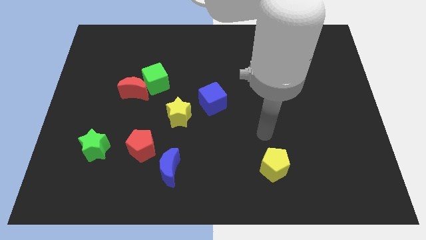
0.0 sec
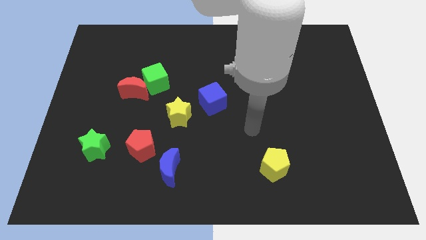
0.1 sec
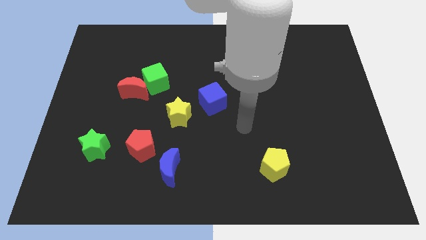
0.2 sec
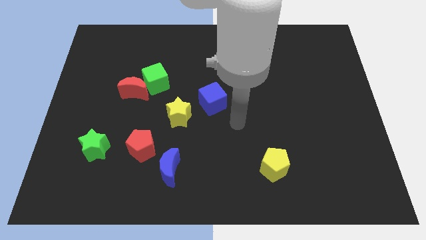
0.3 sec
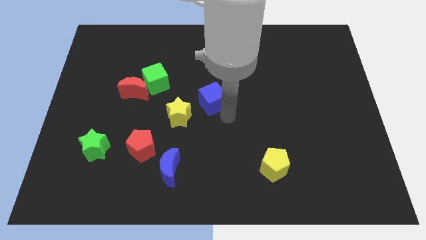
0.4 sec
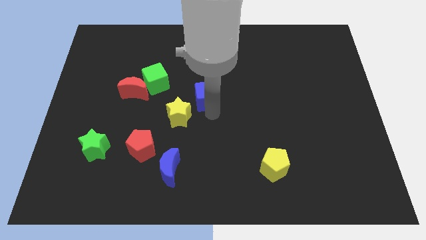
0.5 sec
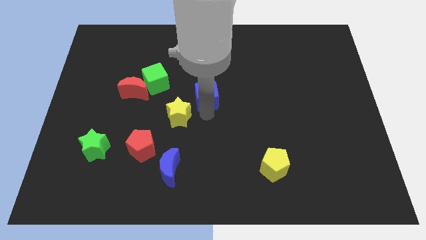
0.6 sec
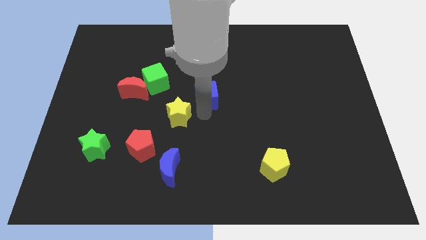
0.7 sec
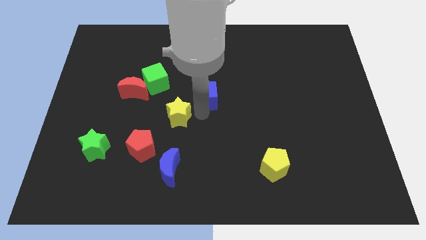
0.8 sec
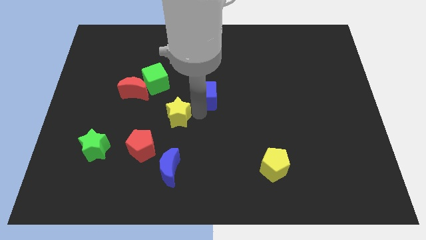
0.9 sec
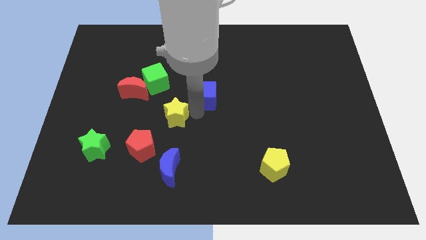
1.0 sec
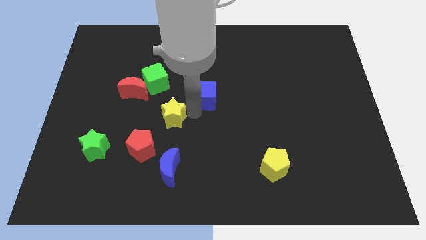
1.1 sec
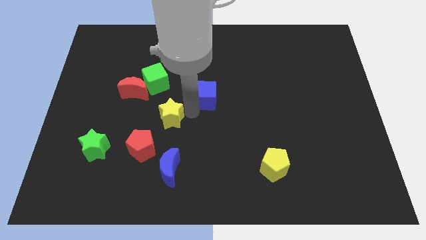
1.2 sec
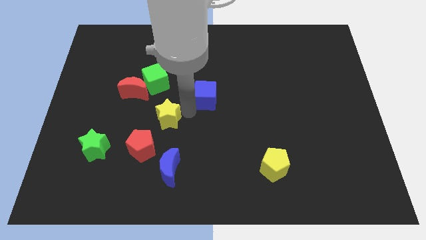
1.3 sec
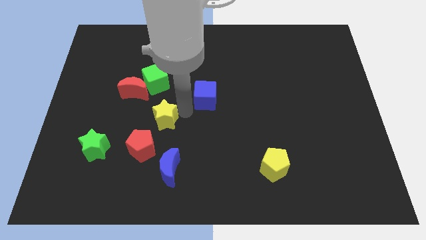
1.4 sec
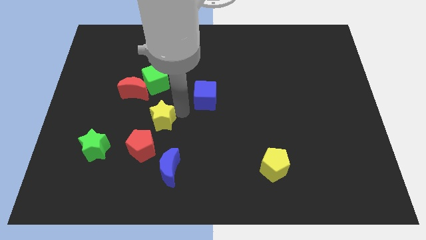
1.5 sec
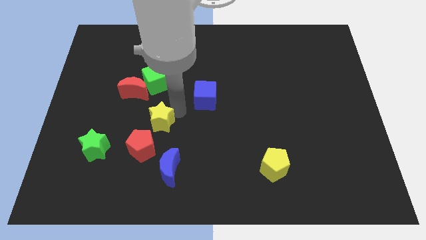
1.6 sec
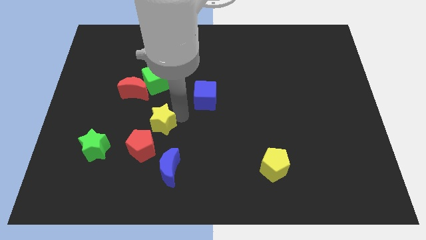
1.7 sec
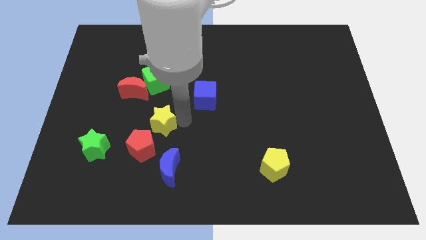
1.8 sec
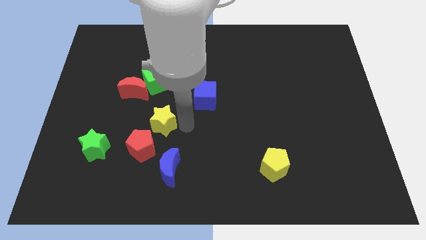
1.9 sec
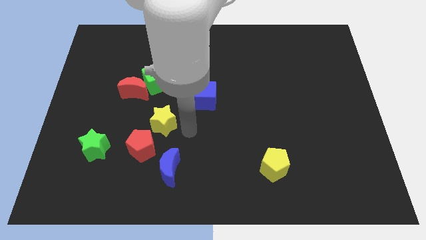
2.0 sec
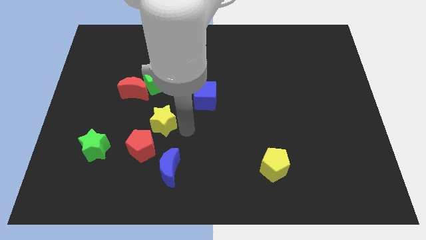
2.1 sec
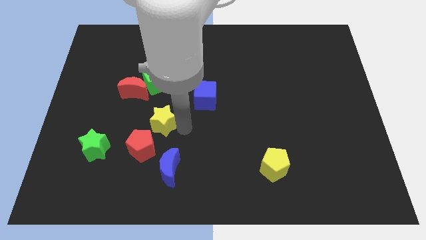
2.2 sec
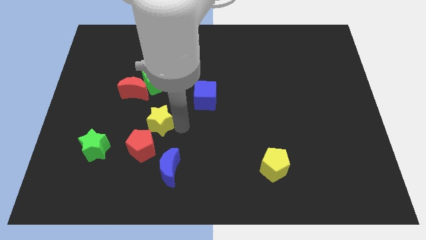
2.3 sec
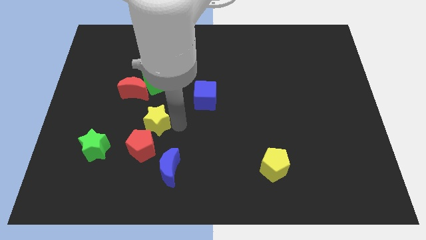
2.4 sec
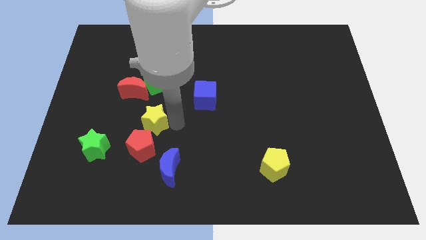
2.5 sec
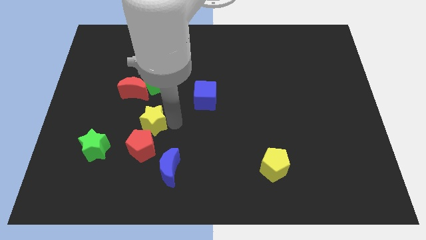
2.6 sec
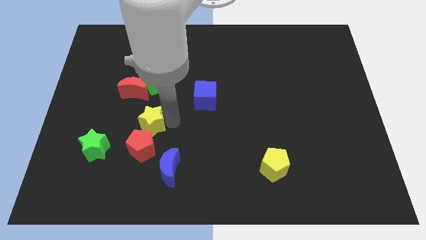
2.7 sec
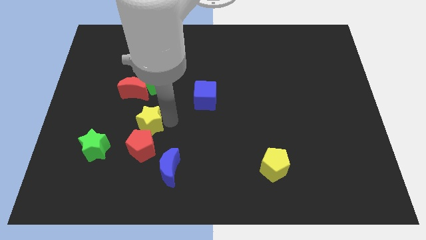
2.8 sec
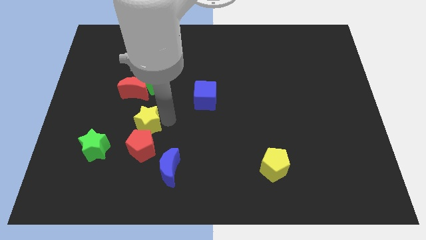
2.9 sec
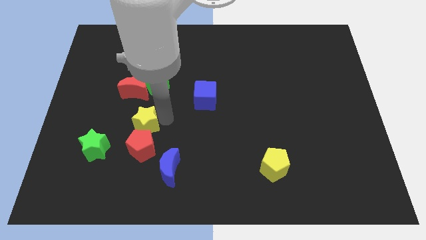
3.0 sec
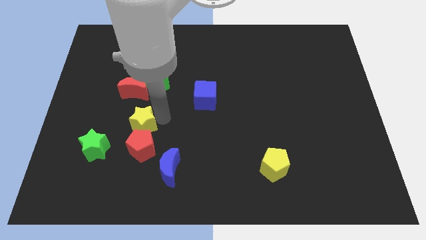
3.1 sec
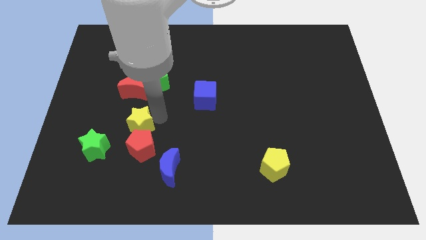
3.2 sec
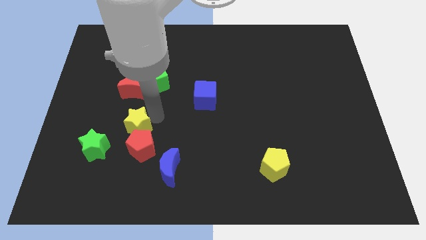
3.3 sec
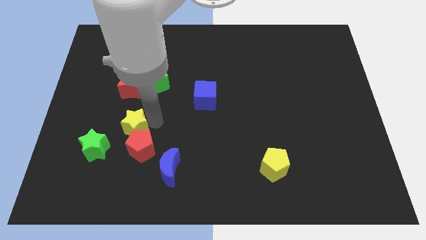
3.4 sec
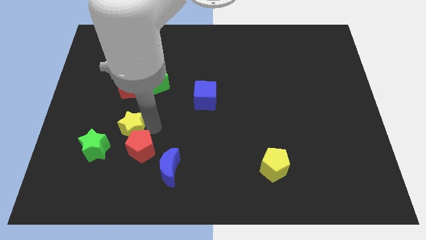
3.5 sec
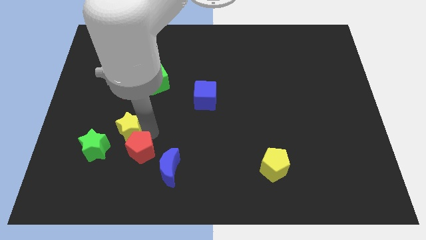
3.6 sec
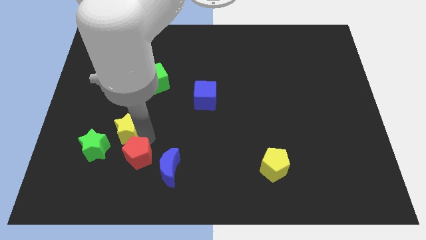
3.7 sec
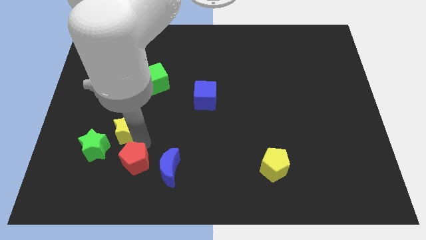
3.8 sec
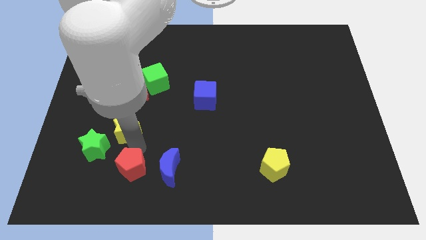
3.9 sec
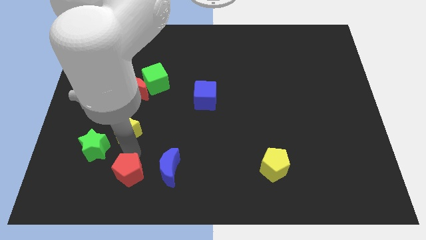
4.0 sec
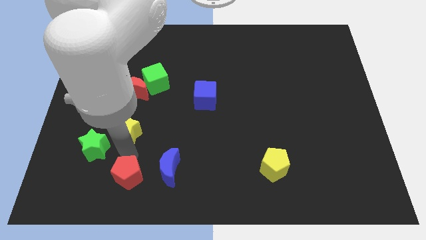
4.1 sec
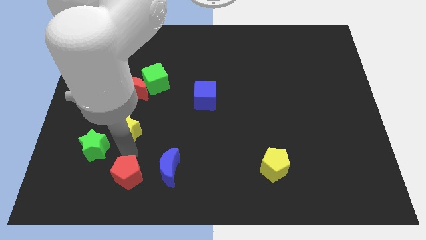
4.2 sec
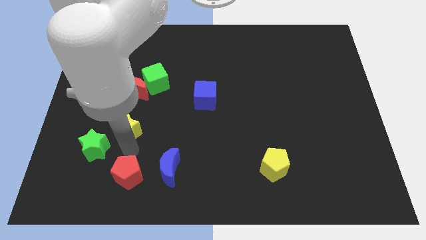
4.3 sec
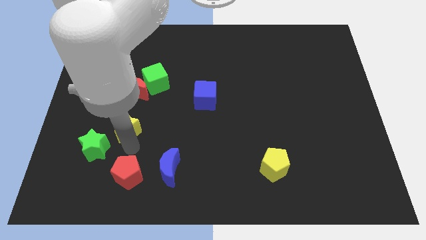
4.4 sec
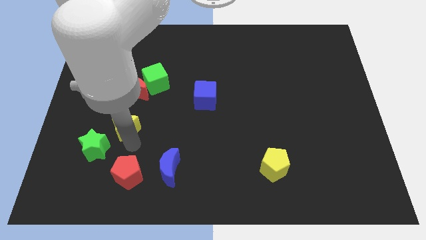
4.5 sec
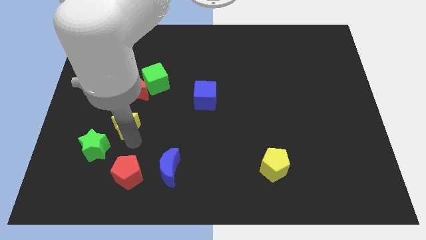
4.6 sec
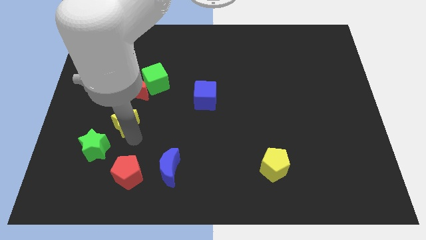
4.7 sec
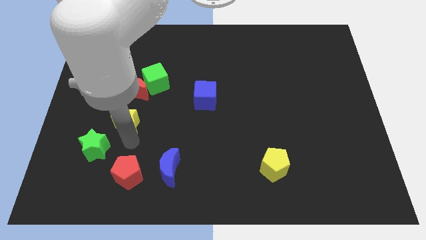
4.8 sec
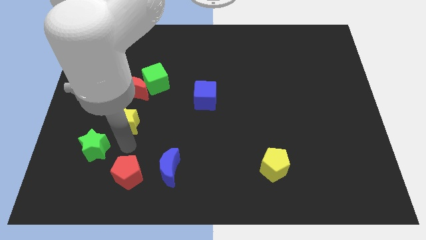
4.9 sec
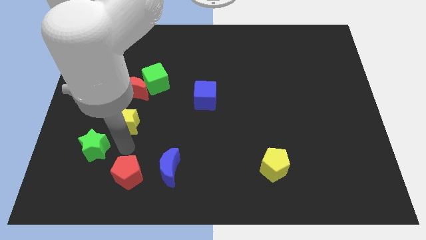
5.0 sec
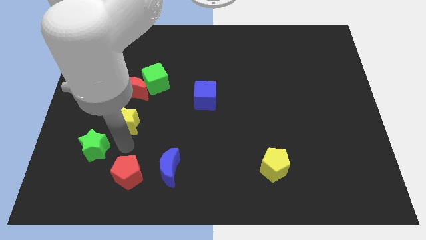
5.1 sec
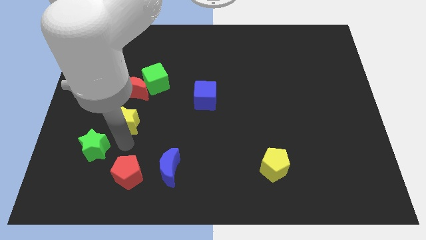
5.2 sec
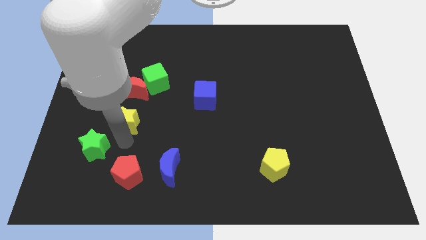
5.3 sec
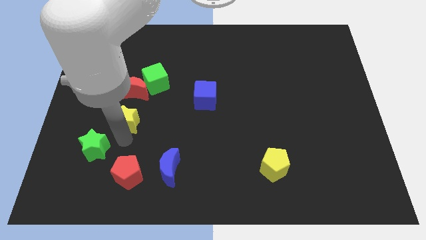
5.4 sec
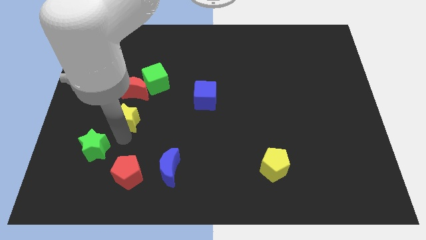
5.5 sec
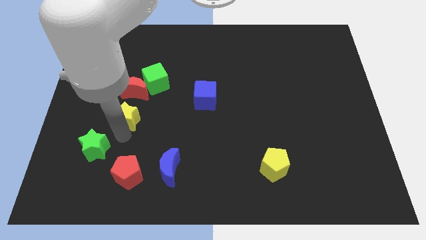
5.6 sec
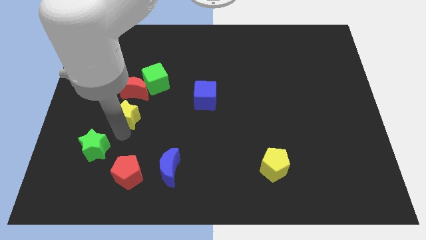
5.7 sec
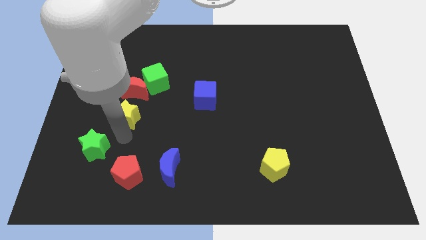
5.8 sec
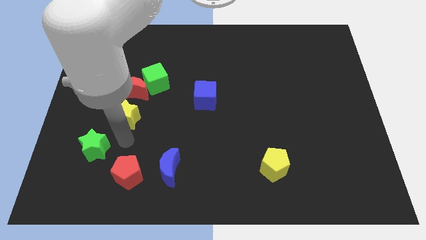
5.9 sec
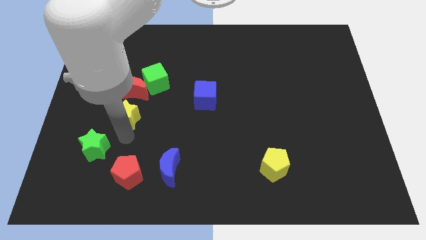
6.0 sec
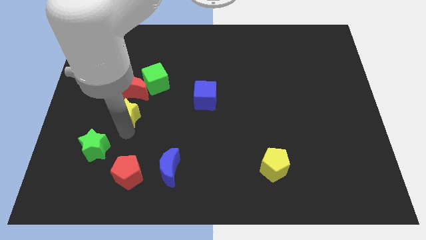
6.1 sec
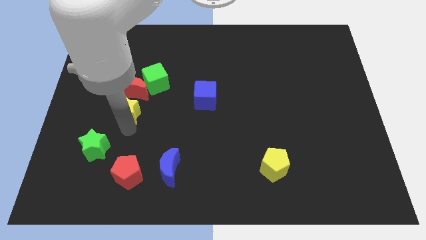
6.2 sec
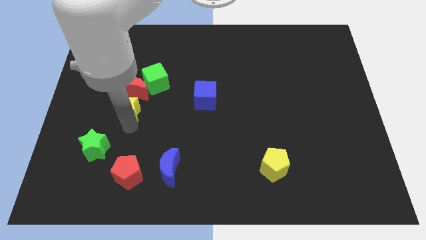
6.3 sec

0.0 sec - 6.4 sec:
slightly push the yellow star up and then to the left

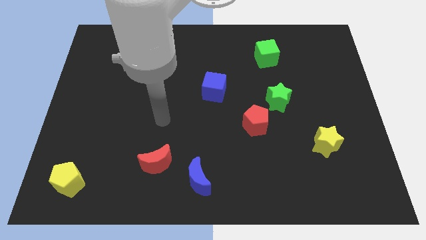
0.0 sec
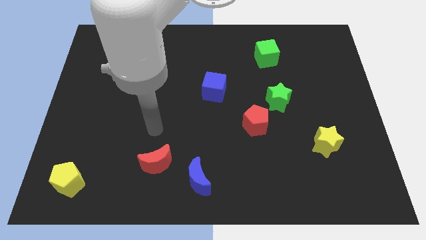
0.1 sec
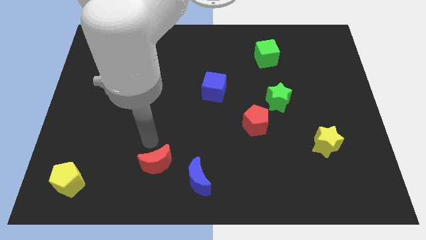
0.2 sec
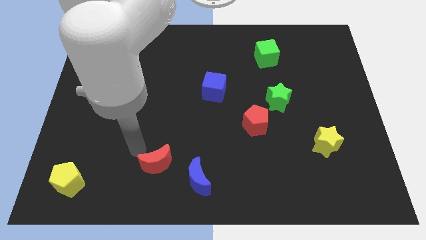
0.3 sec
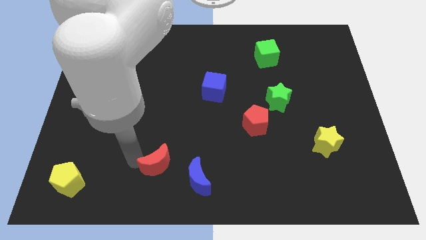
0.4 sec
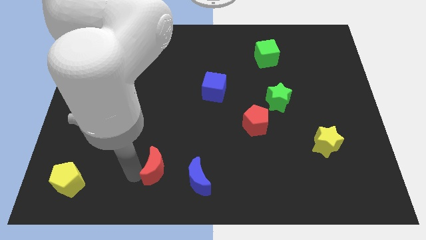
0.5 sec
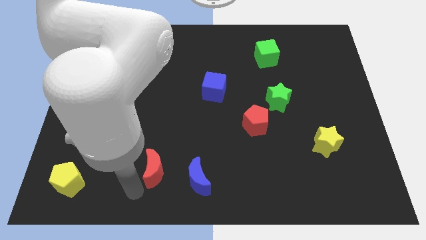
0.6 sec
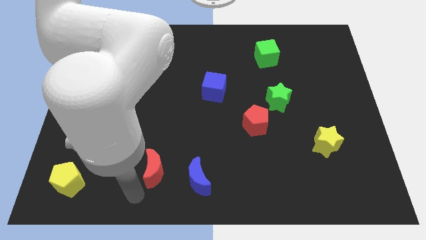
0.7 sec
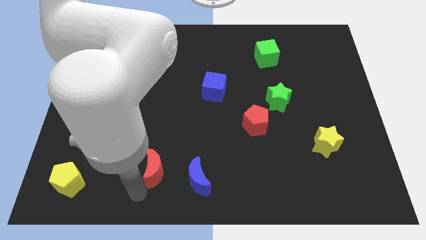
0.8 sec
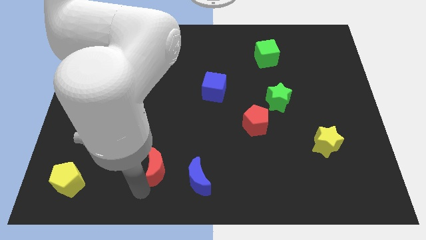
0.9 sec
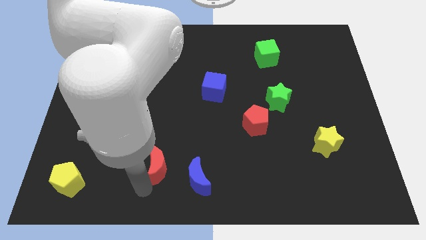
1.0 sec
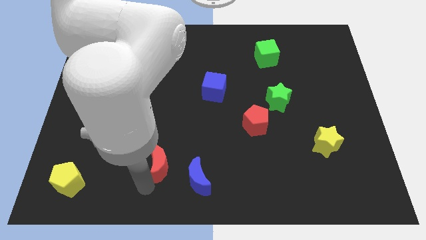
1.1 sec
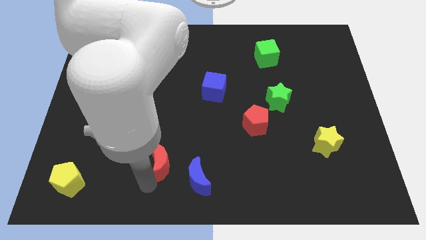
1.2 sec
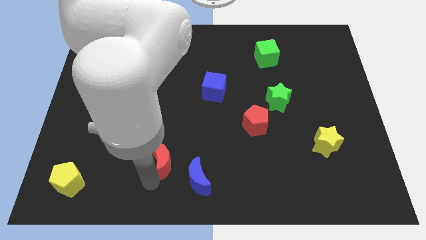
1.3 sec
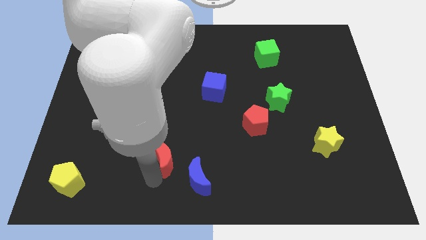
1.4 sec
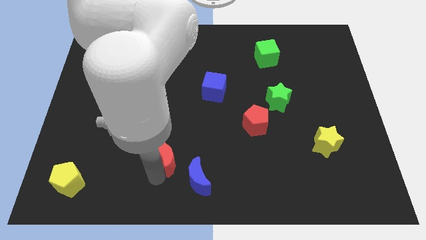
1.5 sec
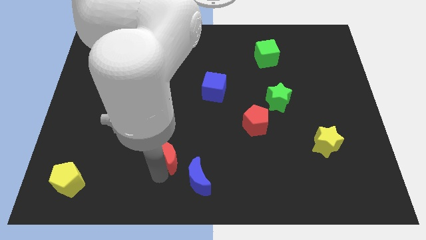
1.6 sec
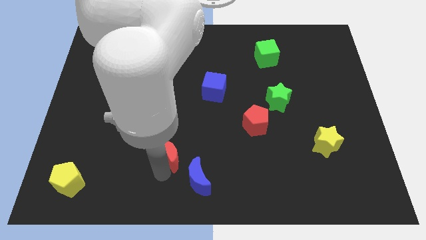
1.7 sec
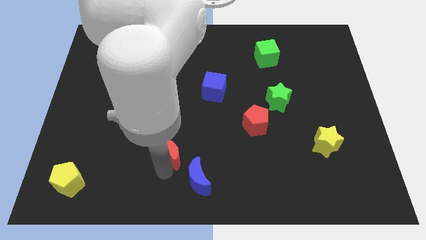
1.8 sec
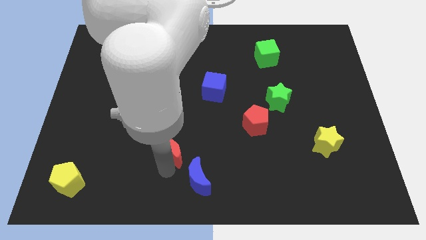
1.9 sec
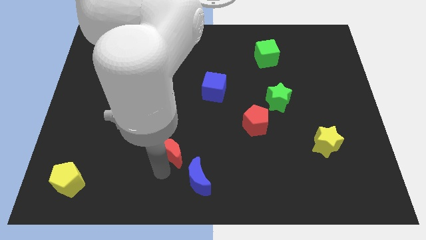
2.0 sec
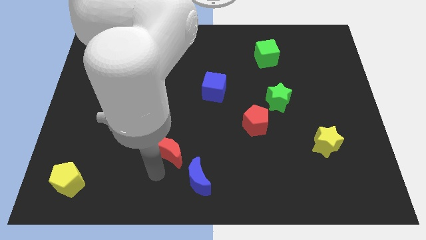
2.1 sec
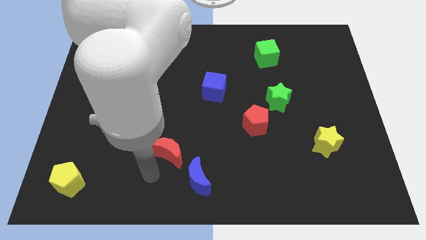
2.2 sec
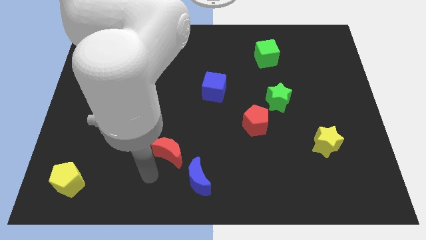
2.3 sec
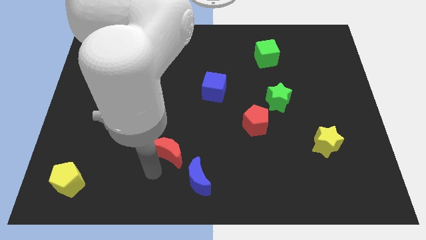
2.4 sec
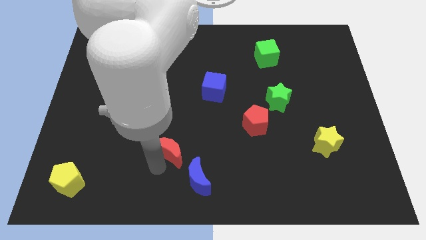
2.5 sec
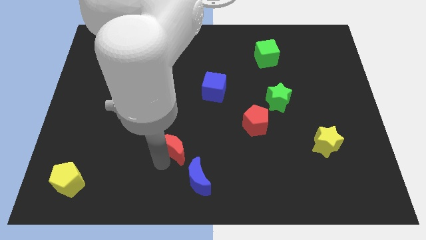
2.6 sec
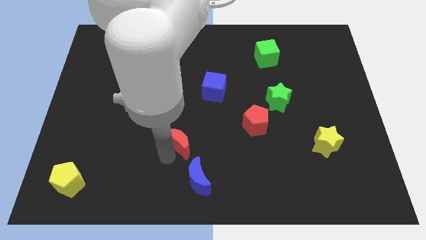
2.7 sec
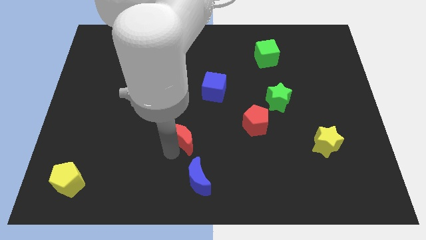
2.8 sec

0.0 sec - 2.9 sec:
push the red moon a bit upwards and to the right diagonally
